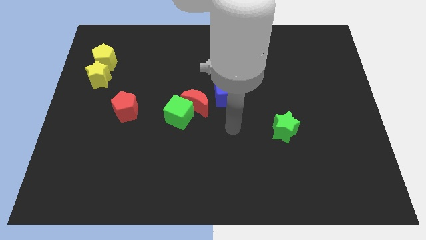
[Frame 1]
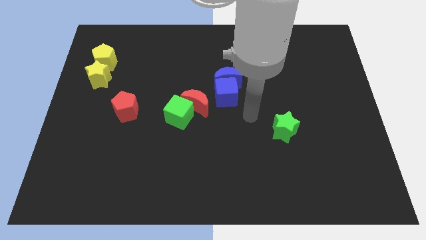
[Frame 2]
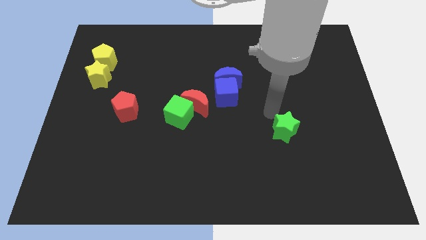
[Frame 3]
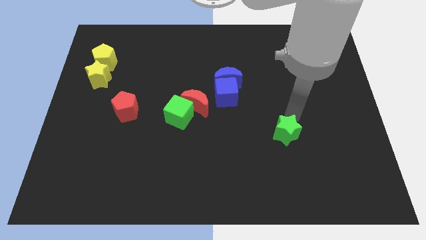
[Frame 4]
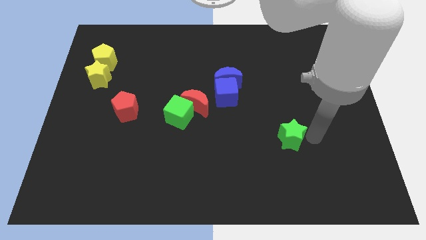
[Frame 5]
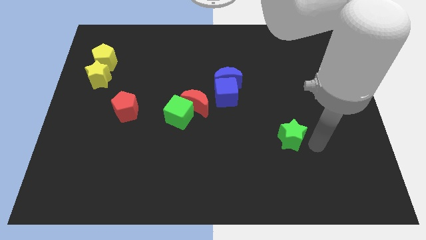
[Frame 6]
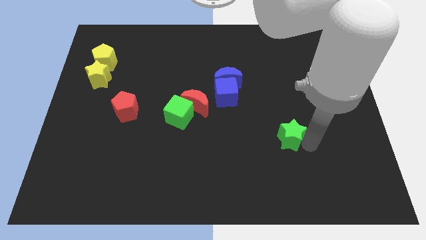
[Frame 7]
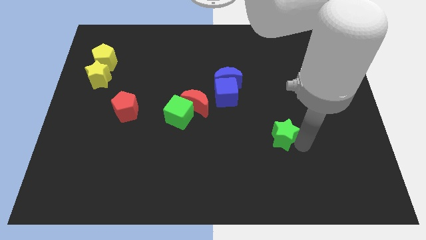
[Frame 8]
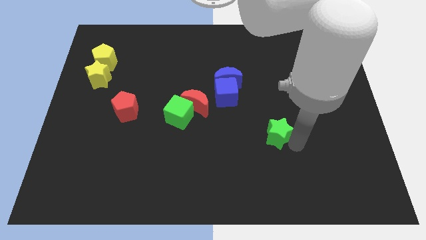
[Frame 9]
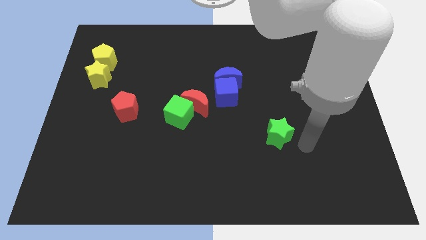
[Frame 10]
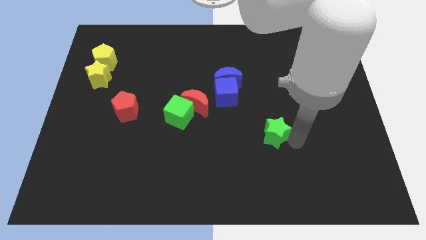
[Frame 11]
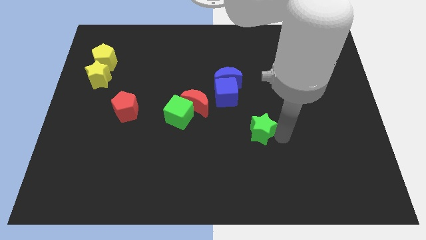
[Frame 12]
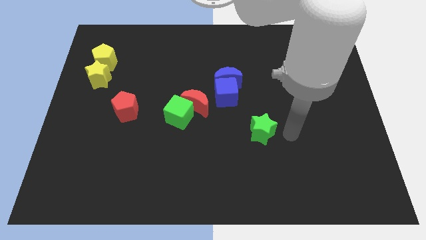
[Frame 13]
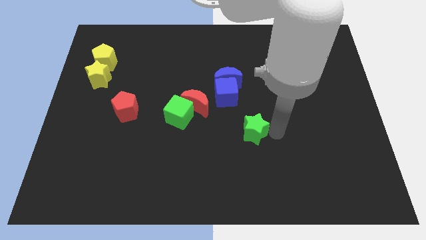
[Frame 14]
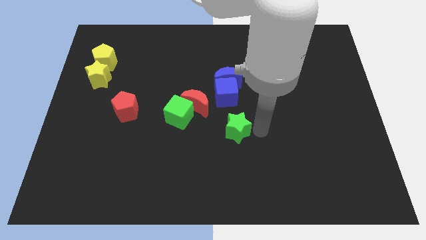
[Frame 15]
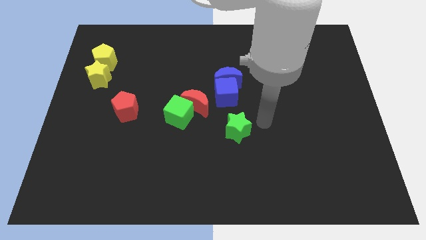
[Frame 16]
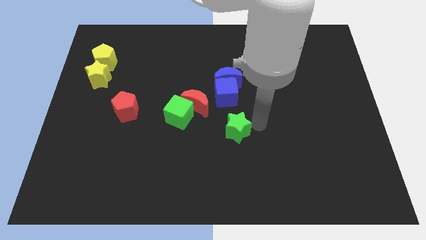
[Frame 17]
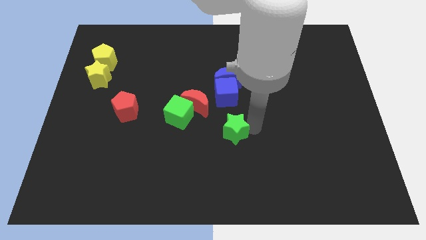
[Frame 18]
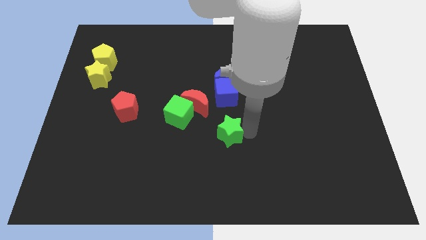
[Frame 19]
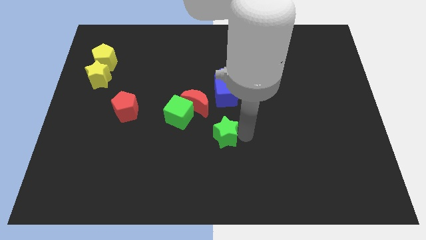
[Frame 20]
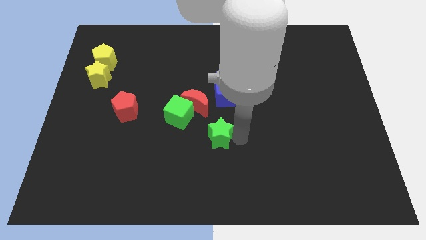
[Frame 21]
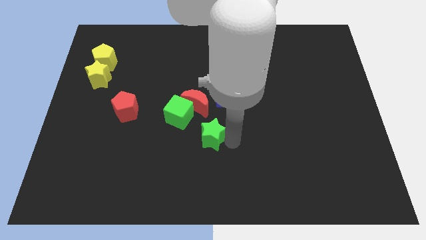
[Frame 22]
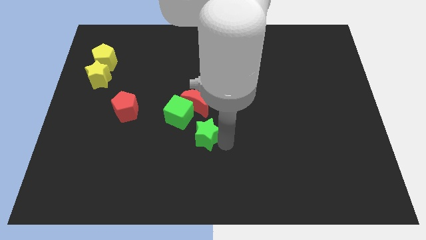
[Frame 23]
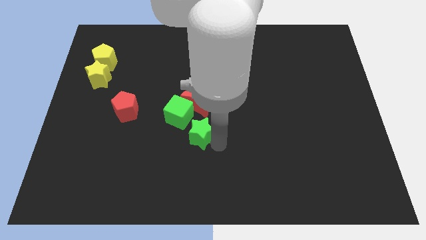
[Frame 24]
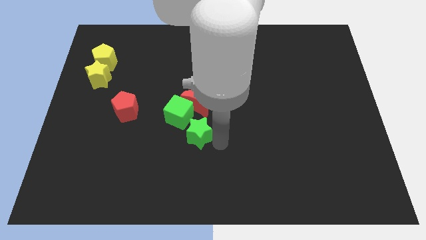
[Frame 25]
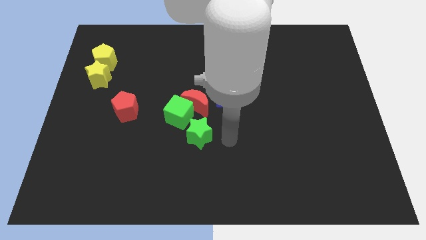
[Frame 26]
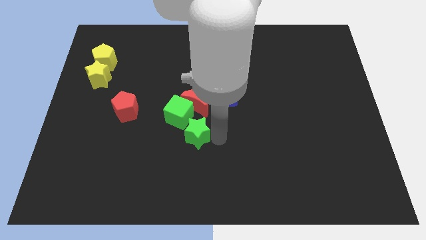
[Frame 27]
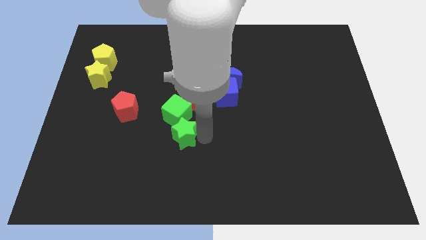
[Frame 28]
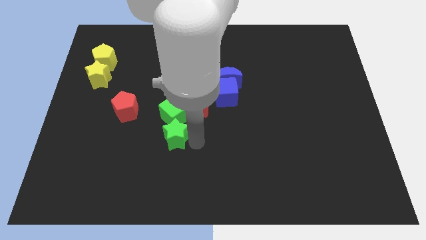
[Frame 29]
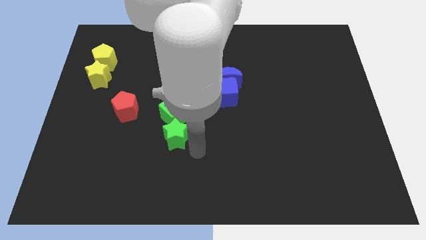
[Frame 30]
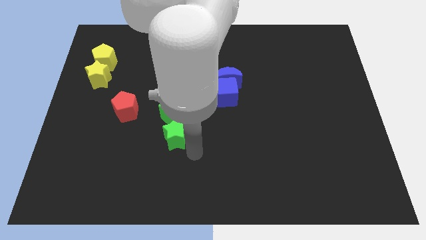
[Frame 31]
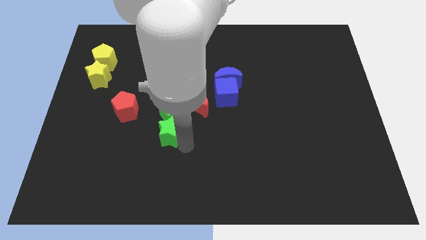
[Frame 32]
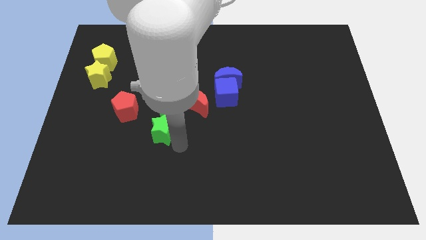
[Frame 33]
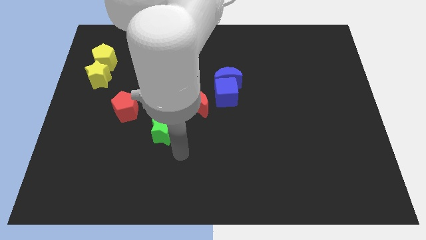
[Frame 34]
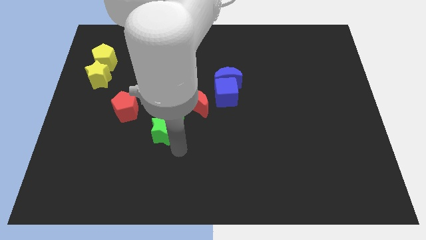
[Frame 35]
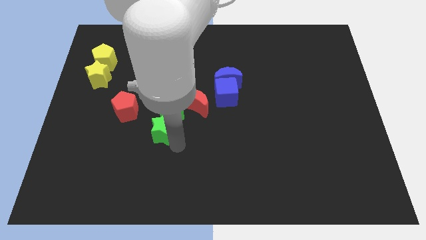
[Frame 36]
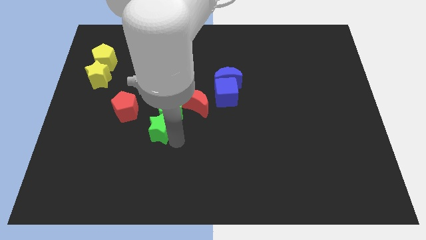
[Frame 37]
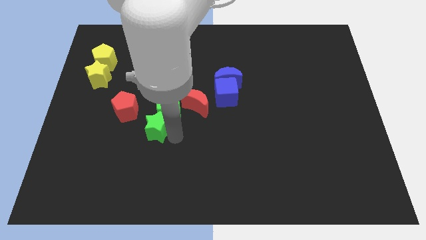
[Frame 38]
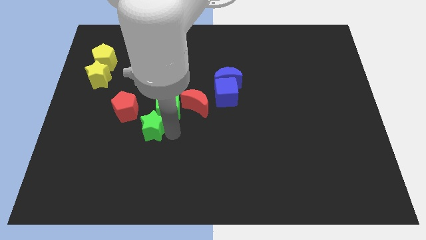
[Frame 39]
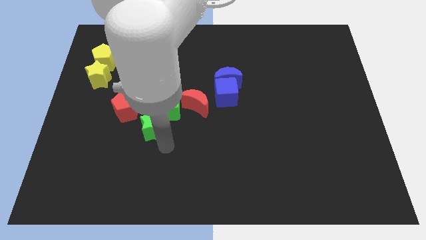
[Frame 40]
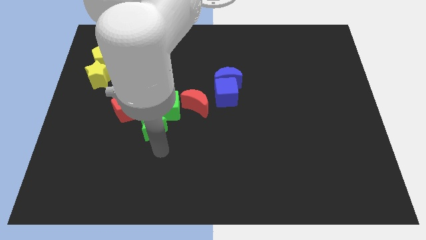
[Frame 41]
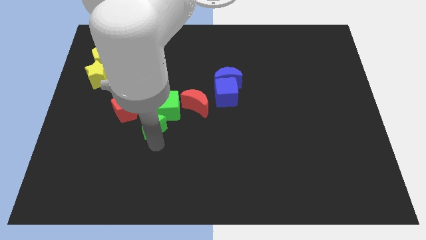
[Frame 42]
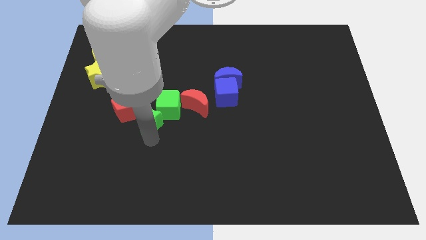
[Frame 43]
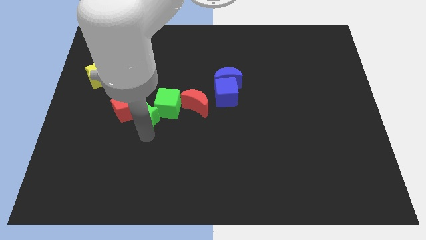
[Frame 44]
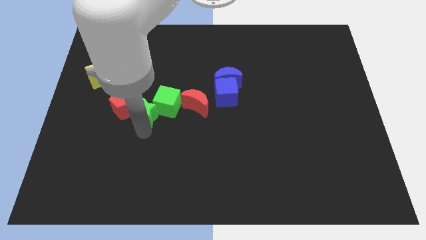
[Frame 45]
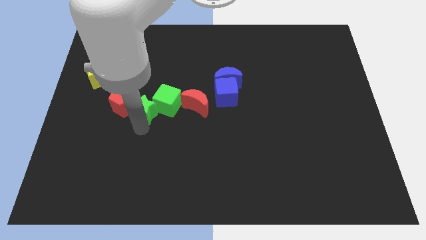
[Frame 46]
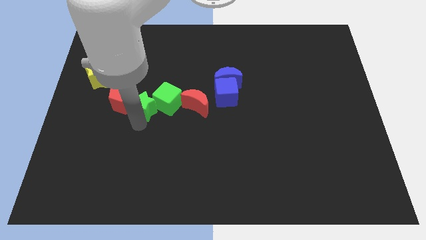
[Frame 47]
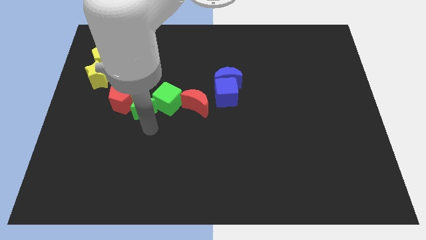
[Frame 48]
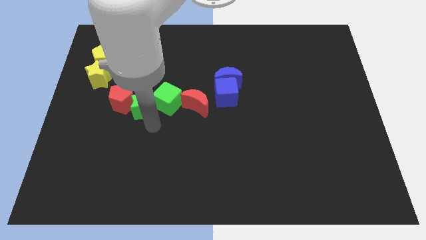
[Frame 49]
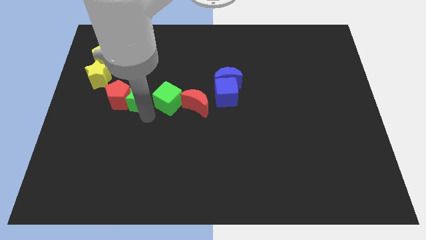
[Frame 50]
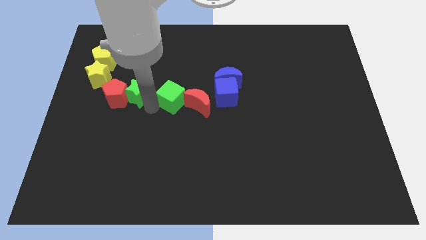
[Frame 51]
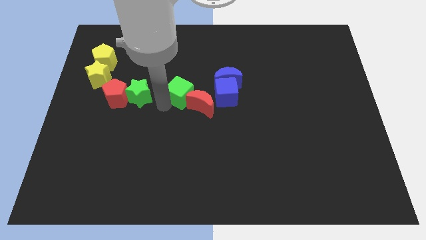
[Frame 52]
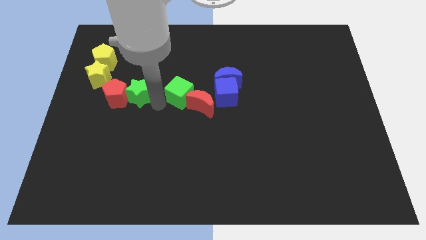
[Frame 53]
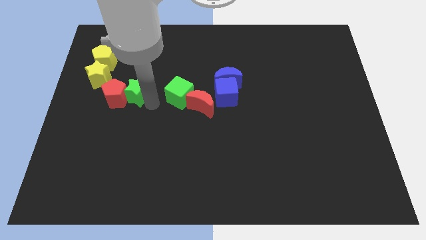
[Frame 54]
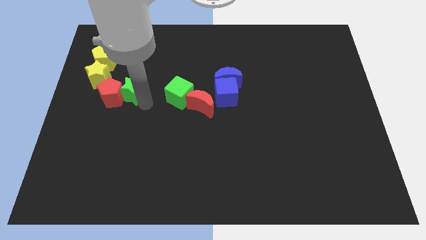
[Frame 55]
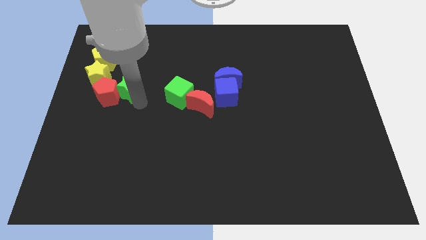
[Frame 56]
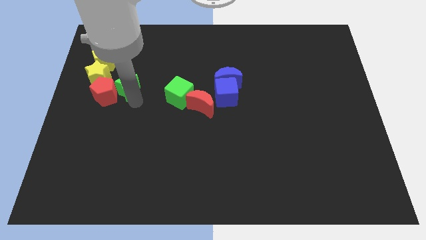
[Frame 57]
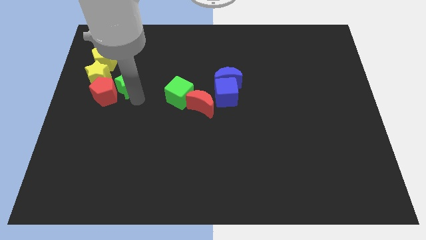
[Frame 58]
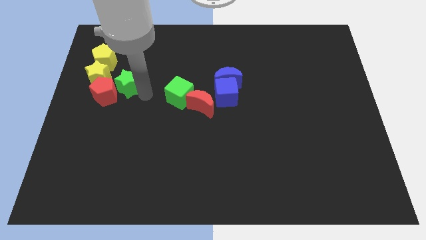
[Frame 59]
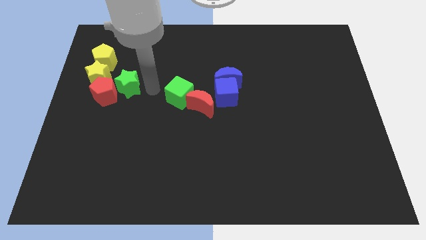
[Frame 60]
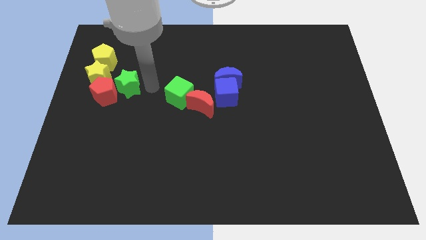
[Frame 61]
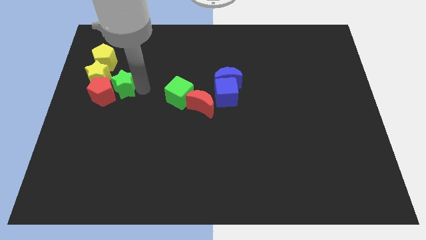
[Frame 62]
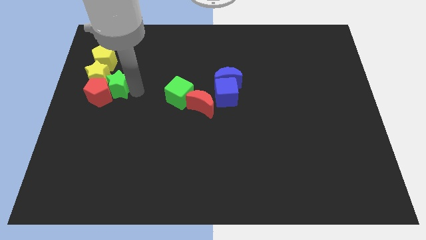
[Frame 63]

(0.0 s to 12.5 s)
push the green star close to the yellow star

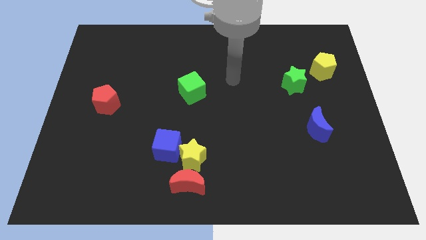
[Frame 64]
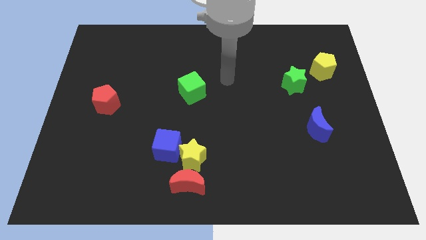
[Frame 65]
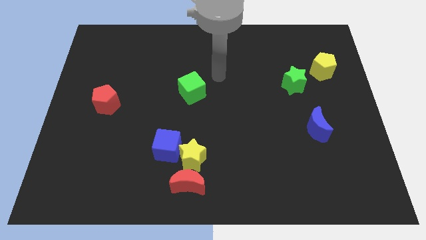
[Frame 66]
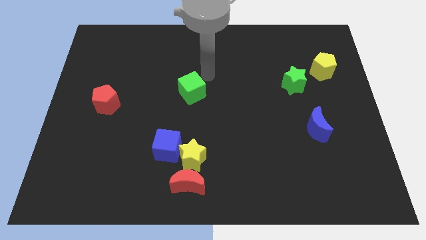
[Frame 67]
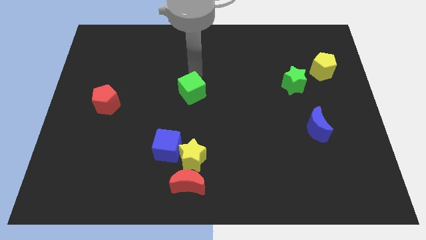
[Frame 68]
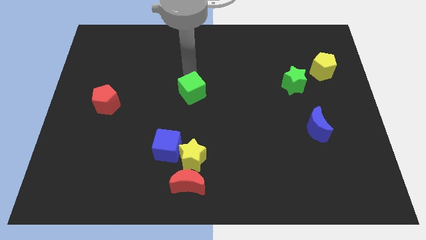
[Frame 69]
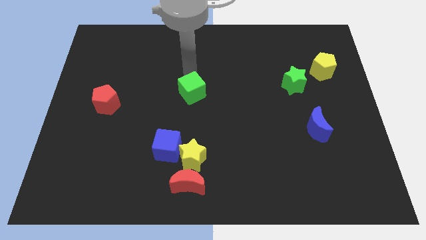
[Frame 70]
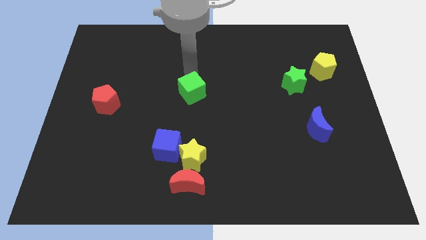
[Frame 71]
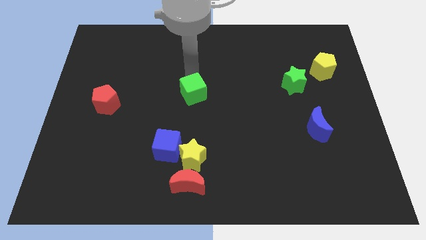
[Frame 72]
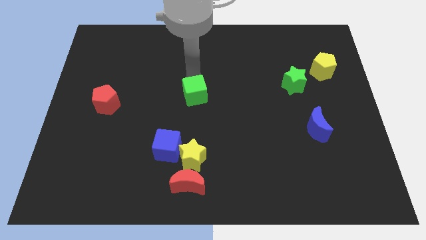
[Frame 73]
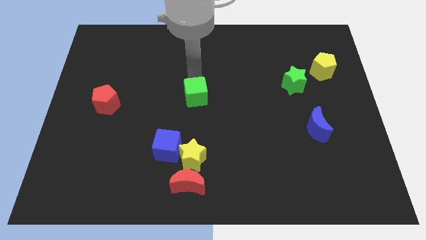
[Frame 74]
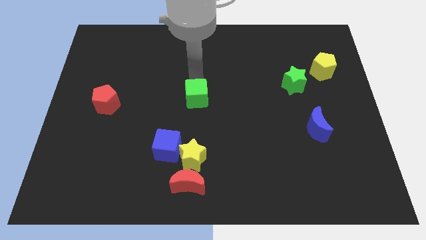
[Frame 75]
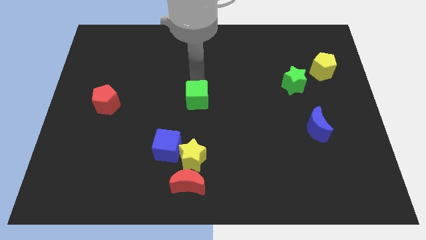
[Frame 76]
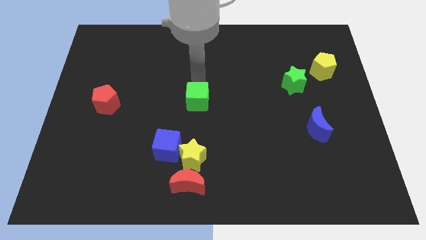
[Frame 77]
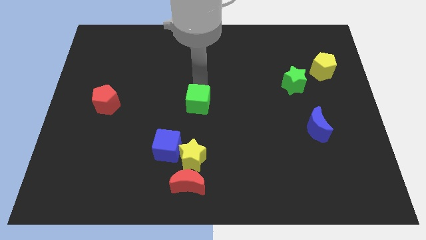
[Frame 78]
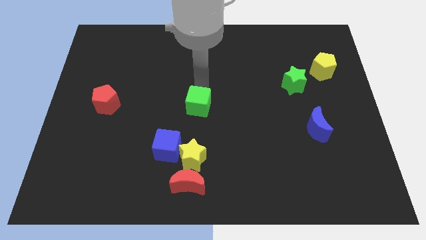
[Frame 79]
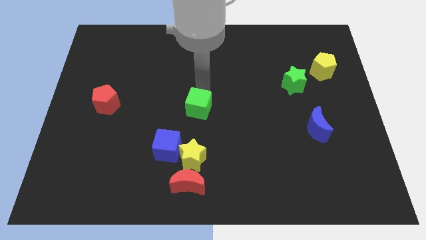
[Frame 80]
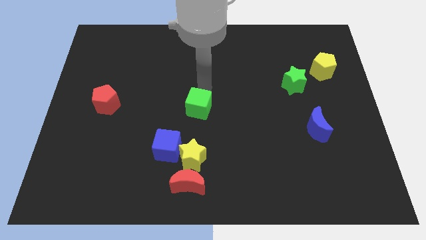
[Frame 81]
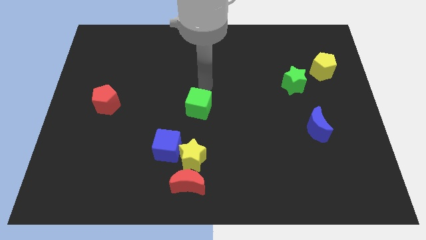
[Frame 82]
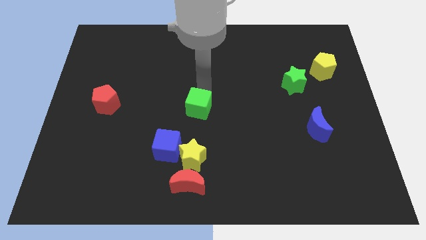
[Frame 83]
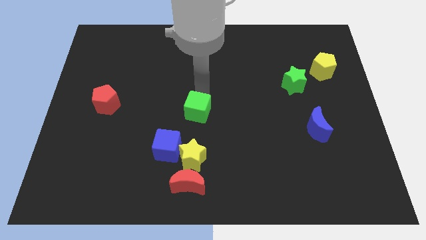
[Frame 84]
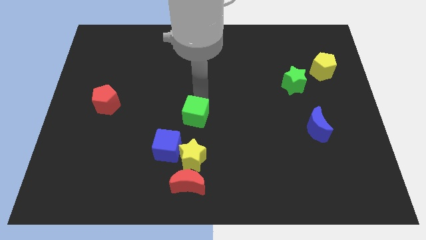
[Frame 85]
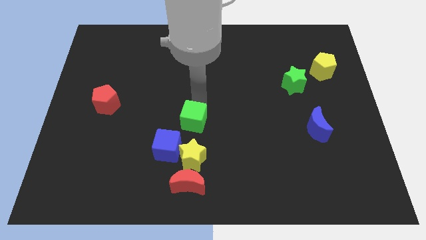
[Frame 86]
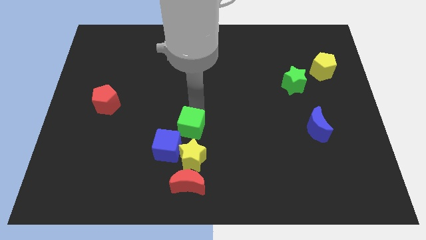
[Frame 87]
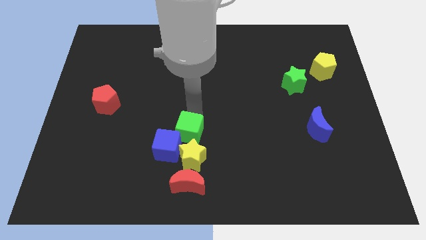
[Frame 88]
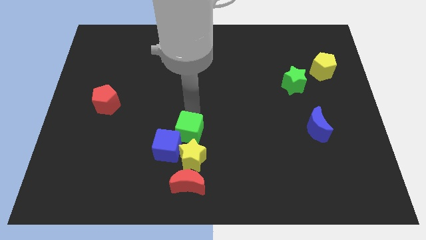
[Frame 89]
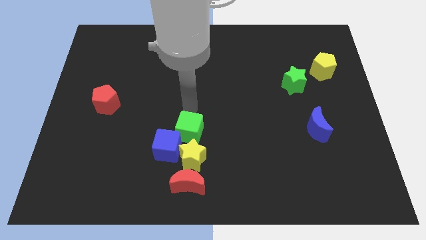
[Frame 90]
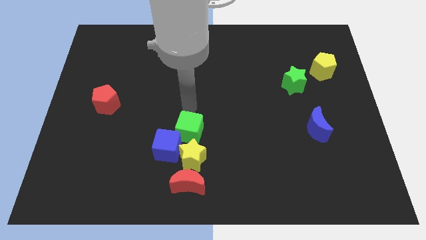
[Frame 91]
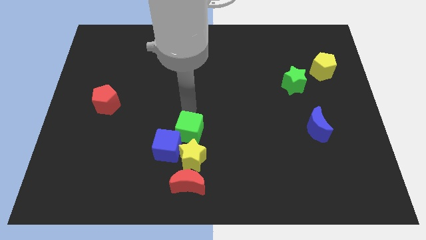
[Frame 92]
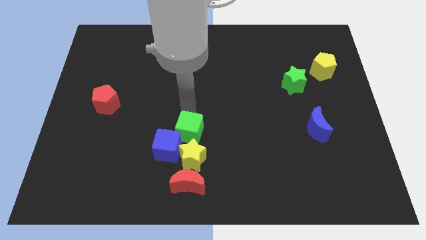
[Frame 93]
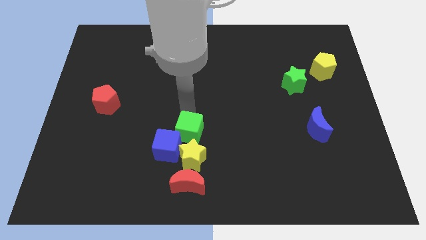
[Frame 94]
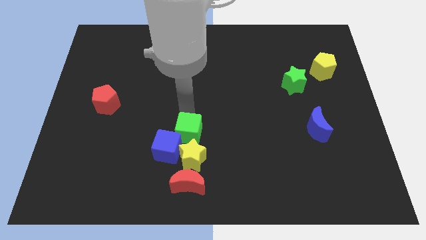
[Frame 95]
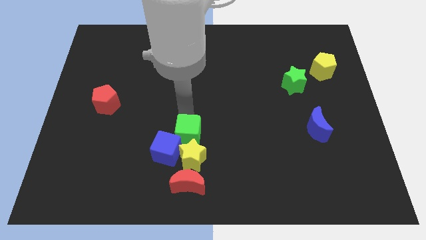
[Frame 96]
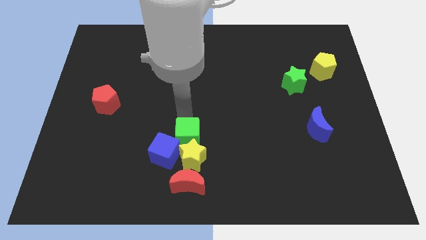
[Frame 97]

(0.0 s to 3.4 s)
slide the green cube close to the yellow star
